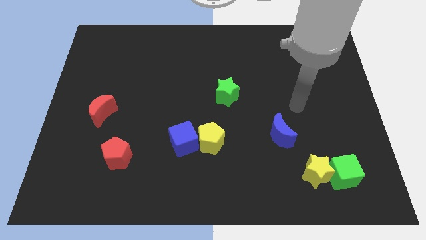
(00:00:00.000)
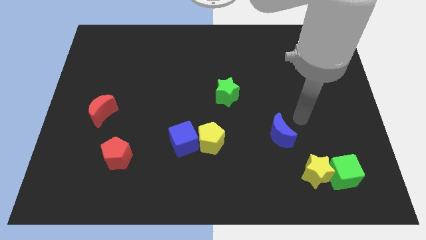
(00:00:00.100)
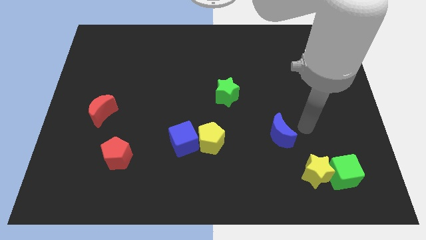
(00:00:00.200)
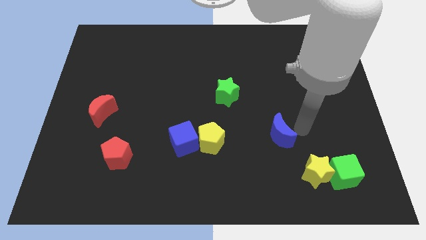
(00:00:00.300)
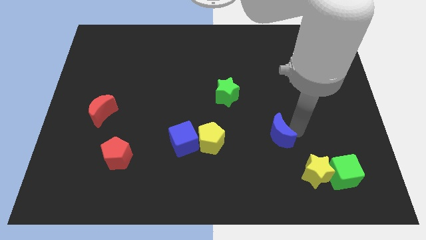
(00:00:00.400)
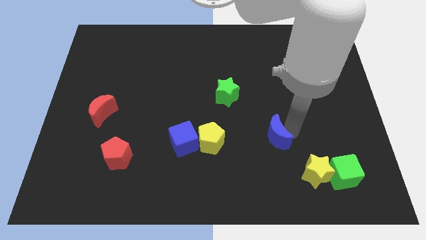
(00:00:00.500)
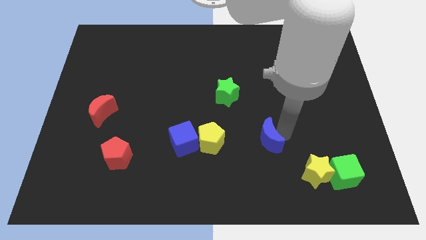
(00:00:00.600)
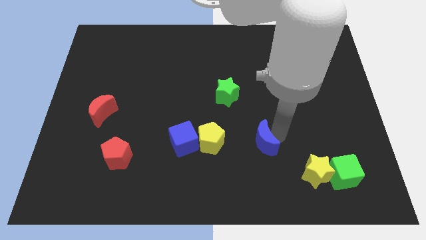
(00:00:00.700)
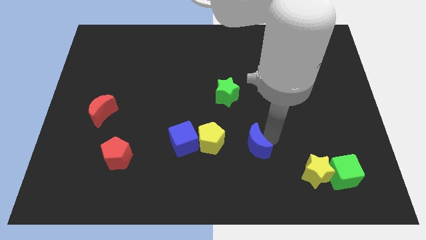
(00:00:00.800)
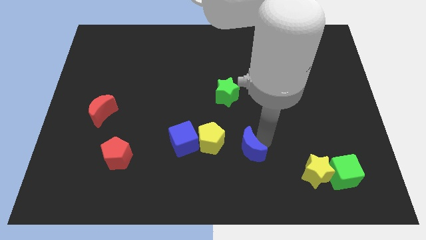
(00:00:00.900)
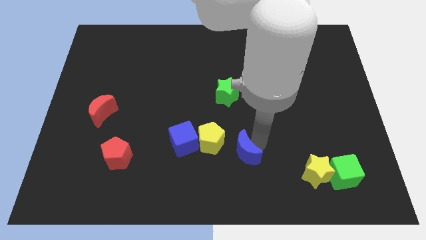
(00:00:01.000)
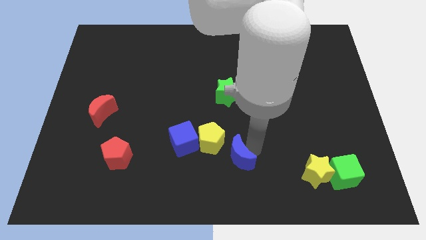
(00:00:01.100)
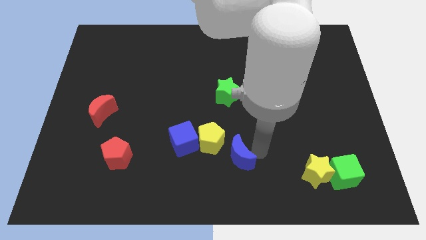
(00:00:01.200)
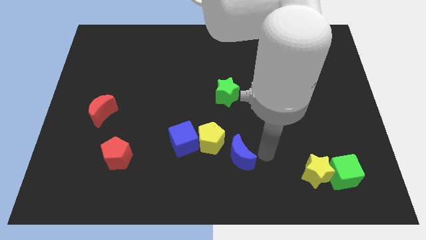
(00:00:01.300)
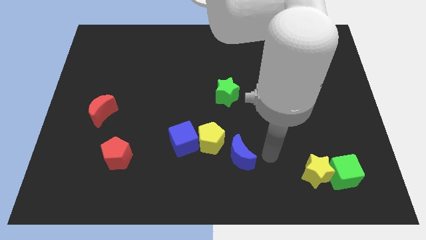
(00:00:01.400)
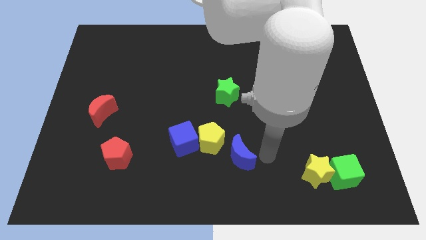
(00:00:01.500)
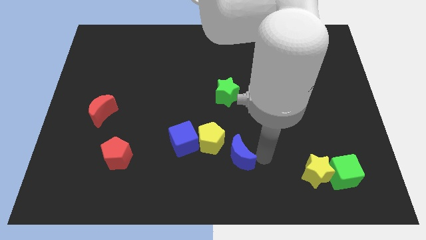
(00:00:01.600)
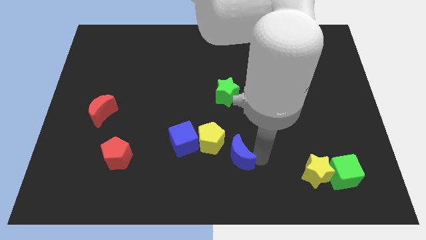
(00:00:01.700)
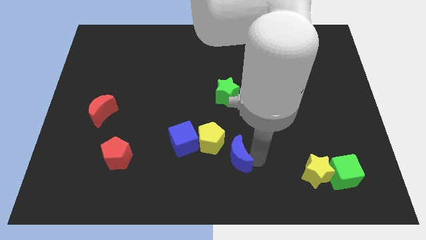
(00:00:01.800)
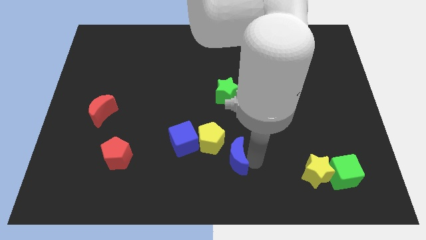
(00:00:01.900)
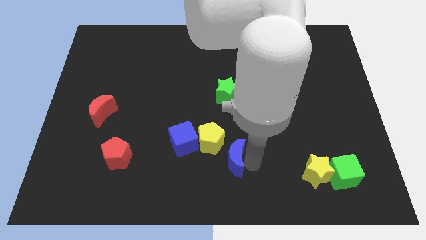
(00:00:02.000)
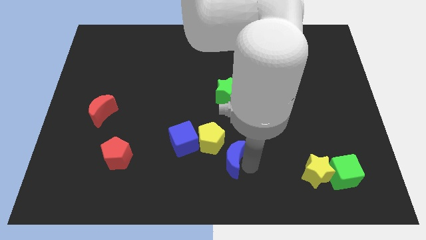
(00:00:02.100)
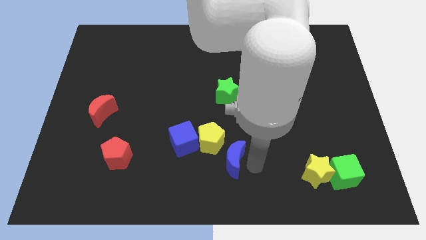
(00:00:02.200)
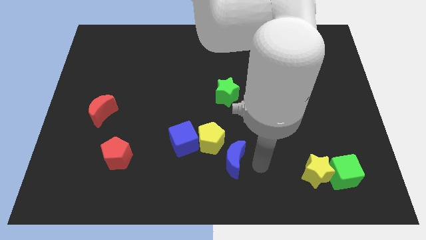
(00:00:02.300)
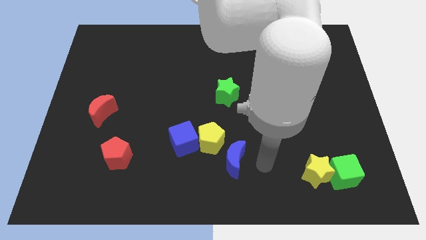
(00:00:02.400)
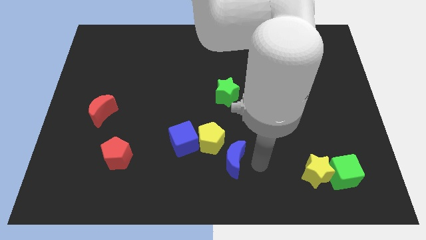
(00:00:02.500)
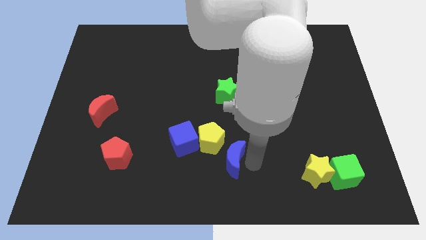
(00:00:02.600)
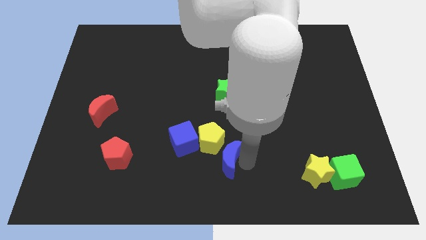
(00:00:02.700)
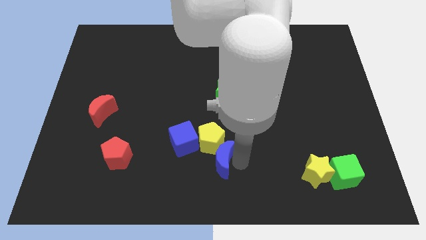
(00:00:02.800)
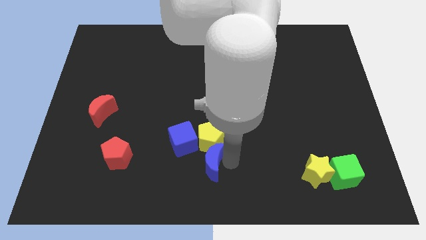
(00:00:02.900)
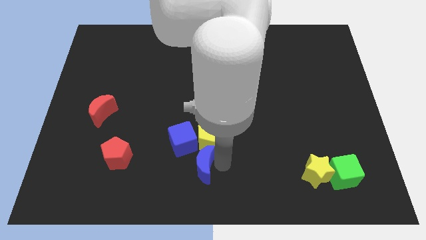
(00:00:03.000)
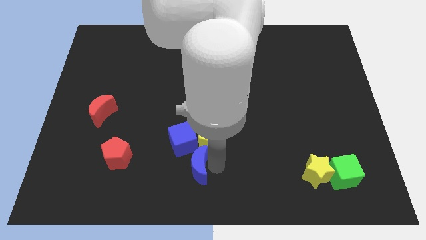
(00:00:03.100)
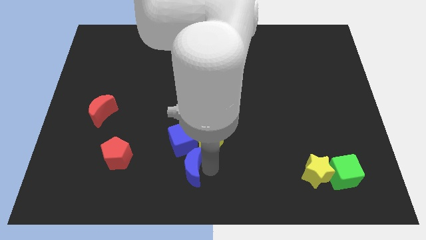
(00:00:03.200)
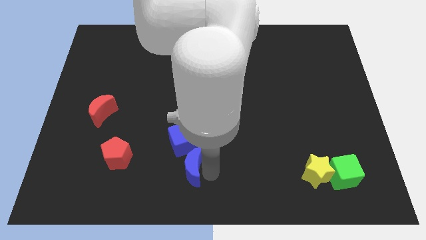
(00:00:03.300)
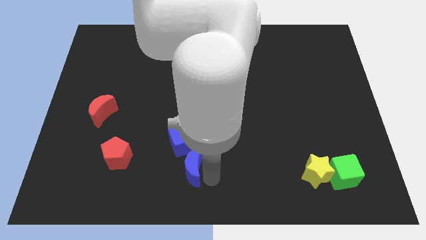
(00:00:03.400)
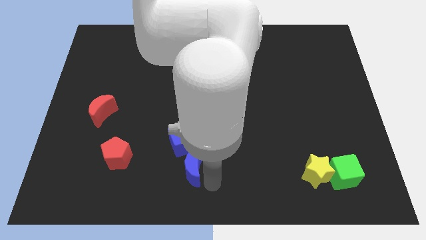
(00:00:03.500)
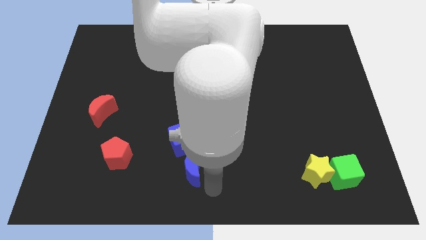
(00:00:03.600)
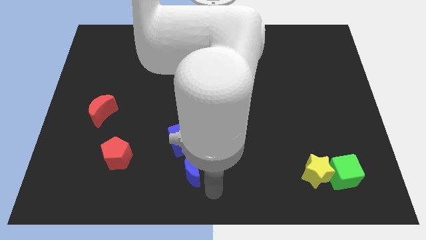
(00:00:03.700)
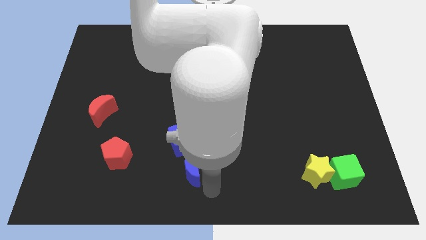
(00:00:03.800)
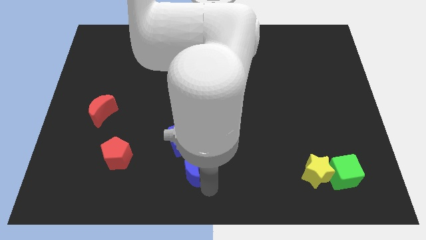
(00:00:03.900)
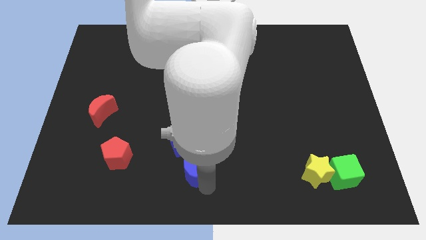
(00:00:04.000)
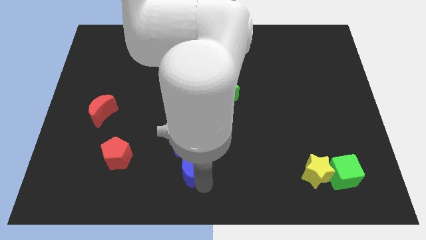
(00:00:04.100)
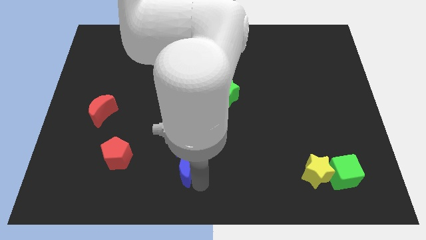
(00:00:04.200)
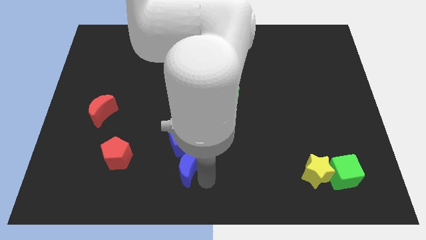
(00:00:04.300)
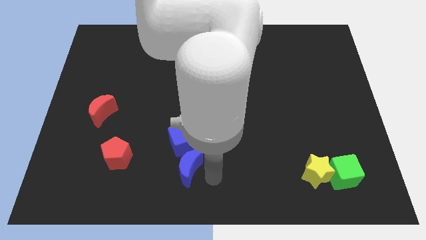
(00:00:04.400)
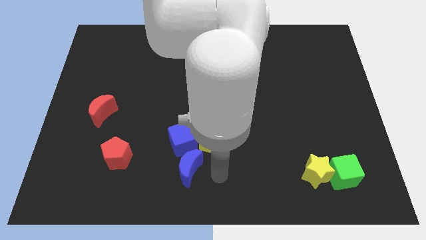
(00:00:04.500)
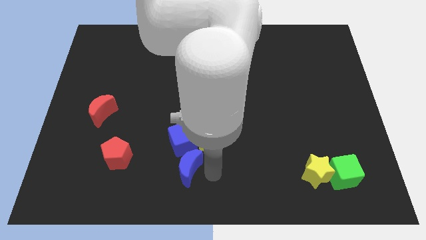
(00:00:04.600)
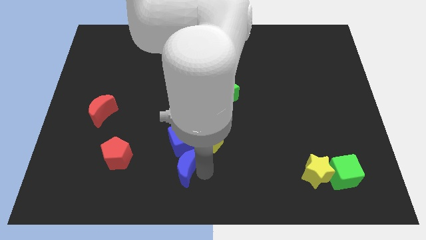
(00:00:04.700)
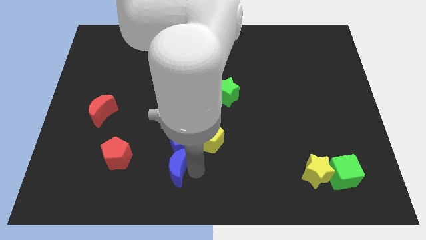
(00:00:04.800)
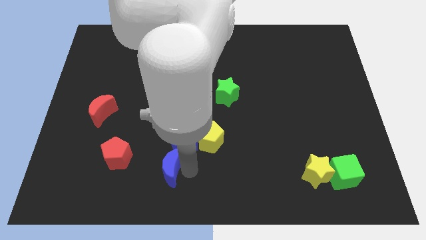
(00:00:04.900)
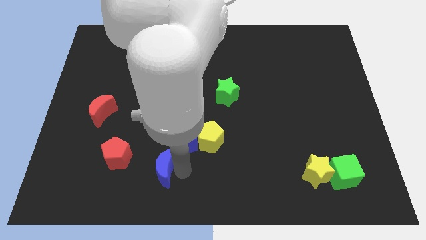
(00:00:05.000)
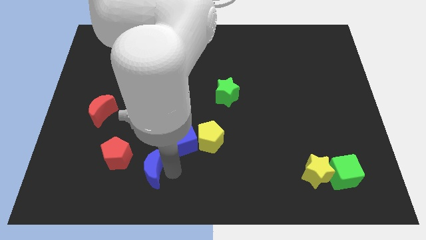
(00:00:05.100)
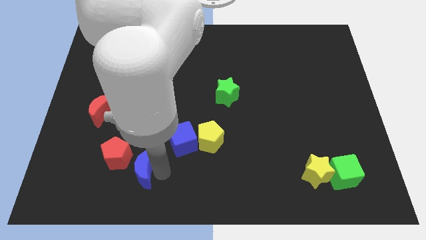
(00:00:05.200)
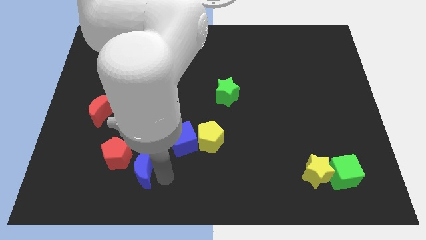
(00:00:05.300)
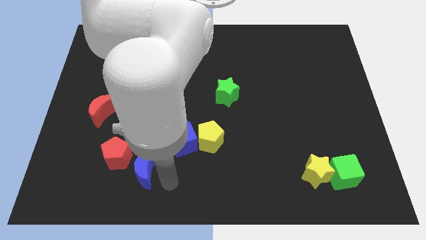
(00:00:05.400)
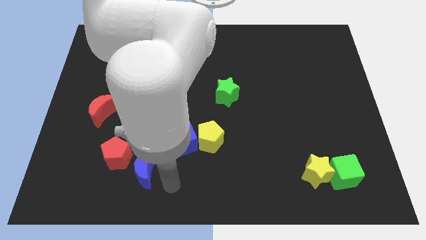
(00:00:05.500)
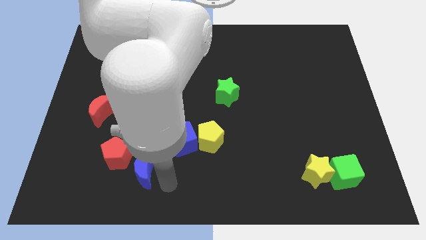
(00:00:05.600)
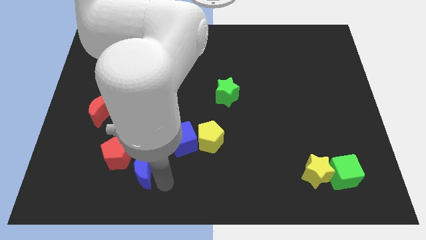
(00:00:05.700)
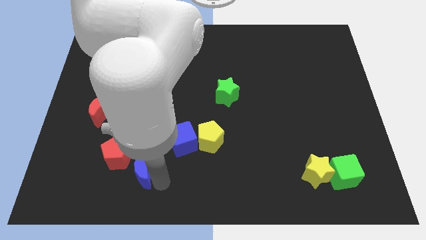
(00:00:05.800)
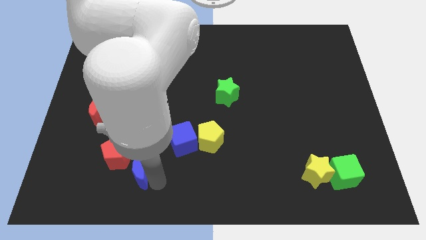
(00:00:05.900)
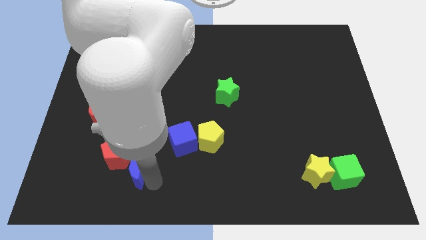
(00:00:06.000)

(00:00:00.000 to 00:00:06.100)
put the blue moon next to the red pentagon

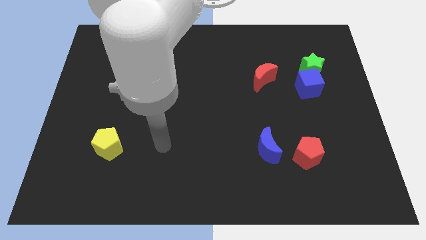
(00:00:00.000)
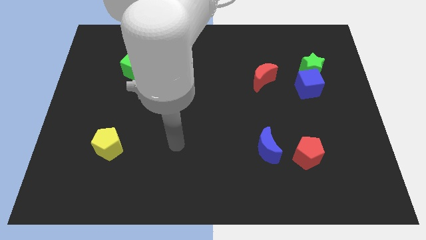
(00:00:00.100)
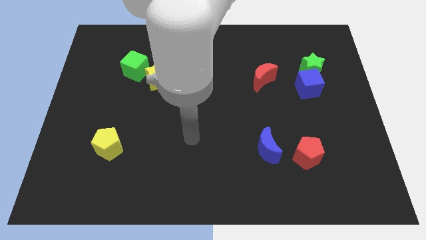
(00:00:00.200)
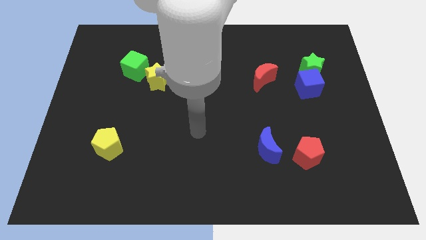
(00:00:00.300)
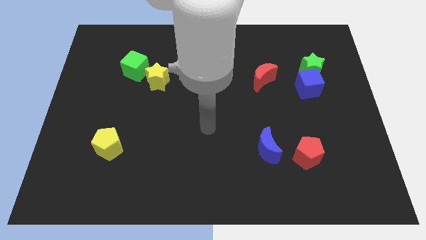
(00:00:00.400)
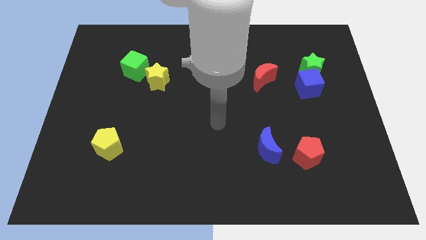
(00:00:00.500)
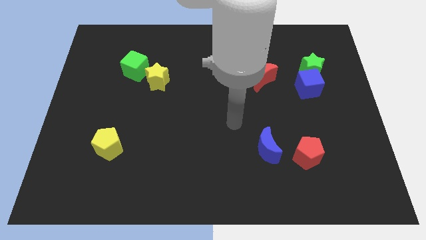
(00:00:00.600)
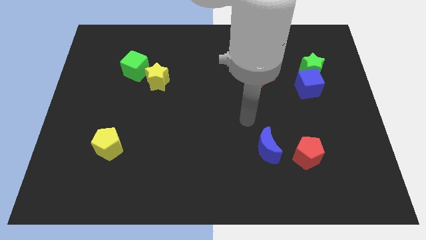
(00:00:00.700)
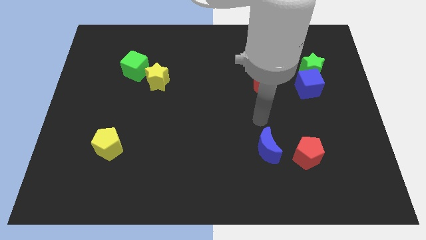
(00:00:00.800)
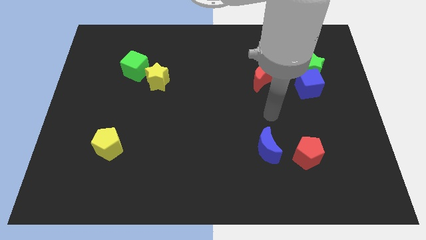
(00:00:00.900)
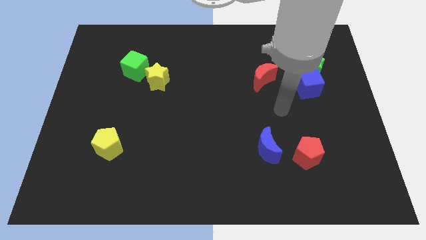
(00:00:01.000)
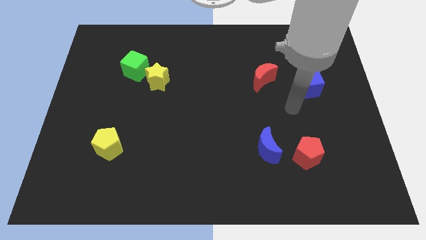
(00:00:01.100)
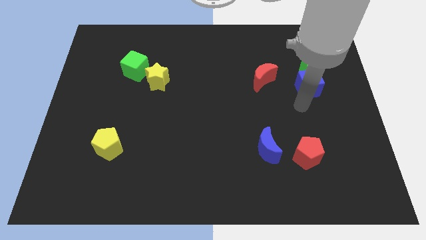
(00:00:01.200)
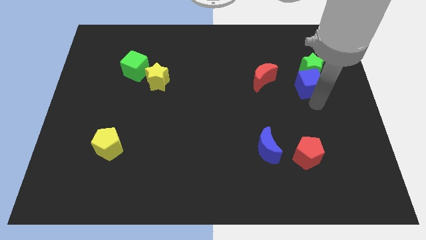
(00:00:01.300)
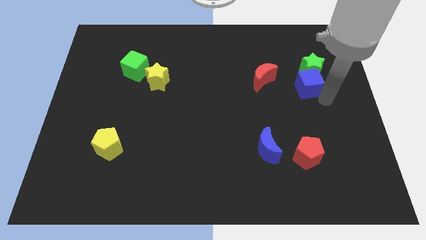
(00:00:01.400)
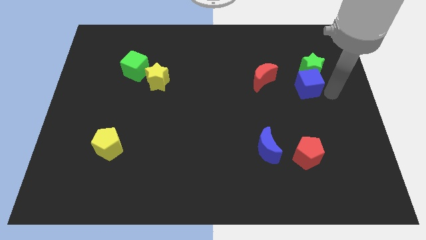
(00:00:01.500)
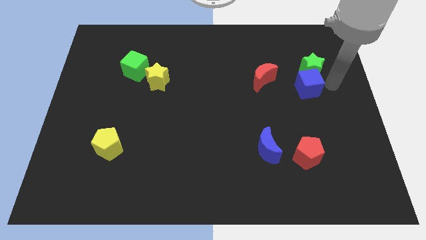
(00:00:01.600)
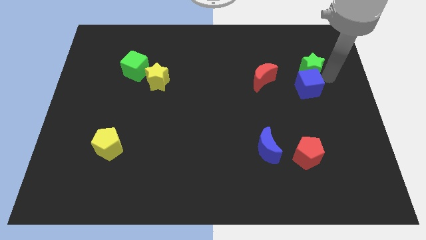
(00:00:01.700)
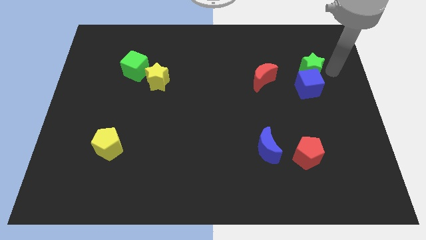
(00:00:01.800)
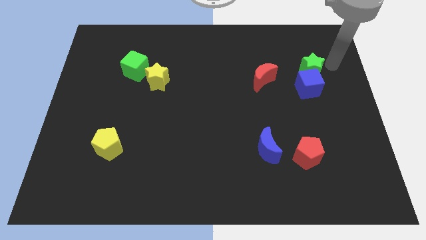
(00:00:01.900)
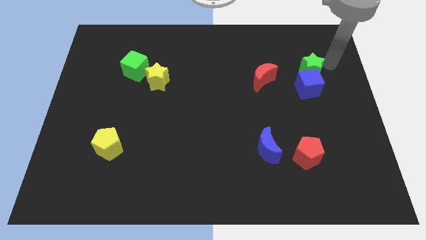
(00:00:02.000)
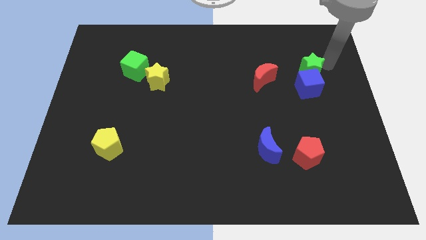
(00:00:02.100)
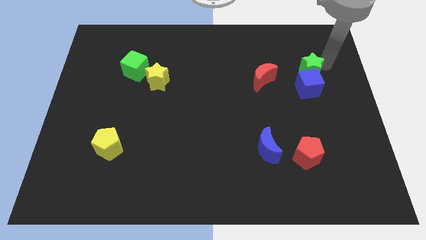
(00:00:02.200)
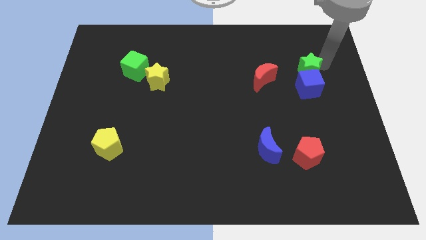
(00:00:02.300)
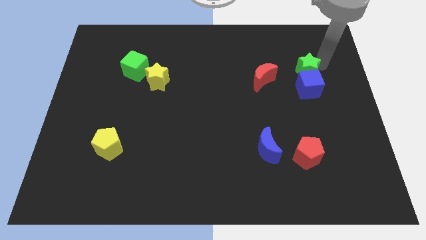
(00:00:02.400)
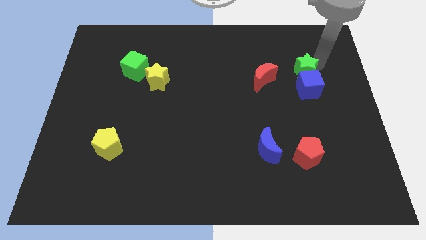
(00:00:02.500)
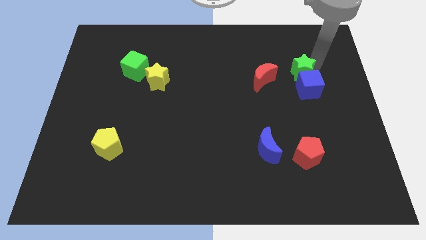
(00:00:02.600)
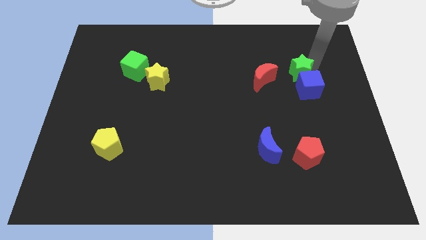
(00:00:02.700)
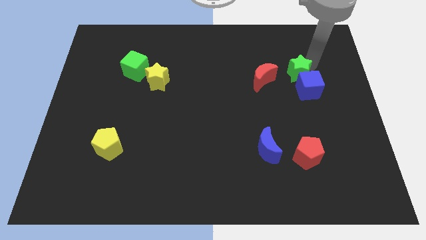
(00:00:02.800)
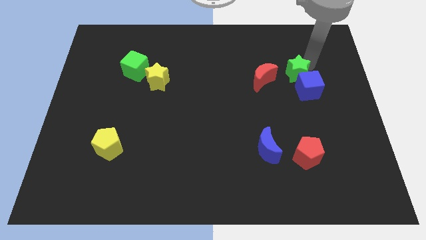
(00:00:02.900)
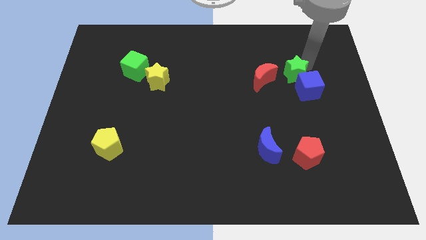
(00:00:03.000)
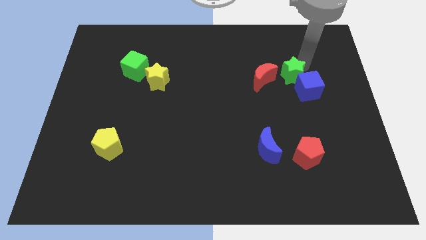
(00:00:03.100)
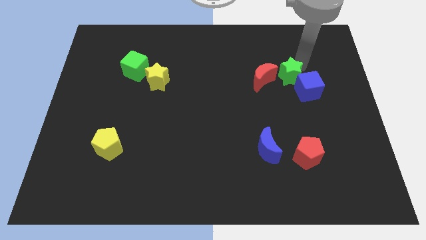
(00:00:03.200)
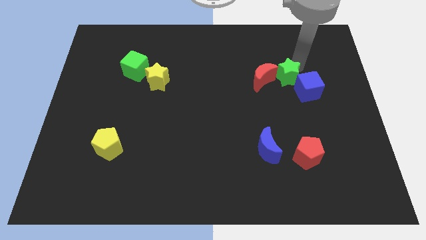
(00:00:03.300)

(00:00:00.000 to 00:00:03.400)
push the green star to the red moon
